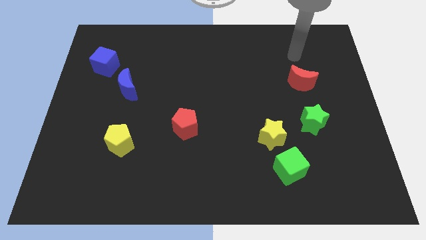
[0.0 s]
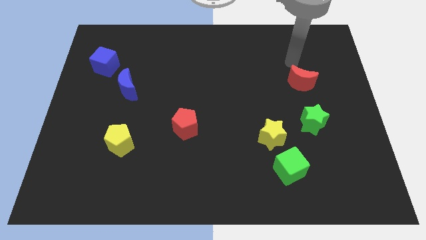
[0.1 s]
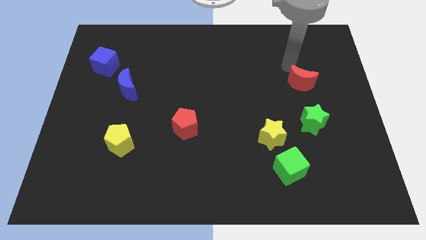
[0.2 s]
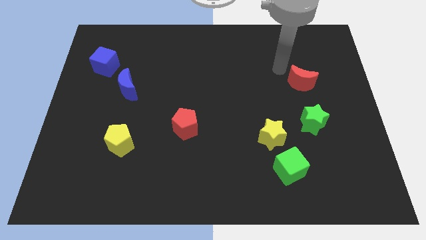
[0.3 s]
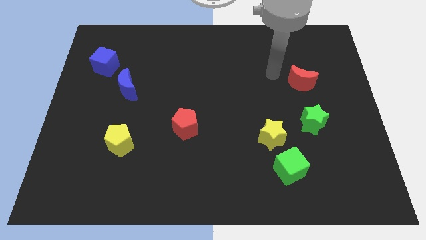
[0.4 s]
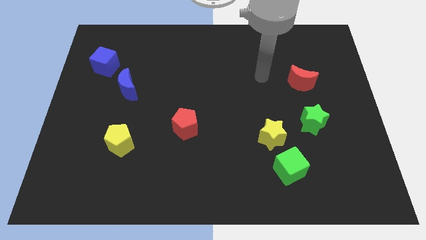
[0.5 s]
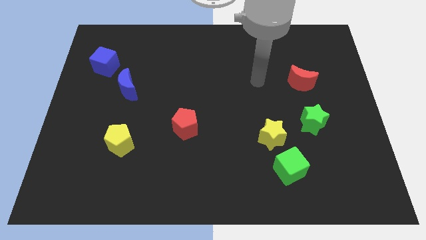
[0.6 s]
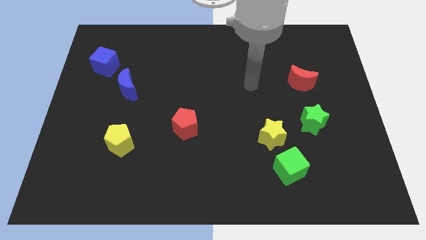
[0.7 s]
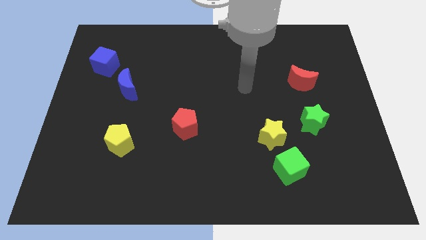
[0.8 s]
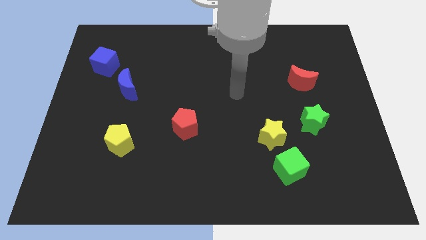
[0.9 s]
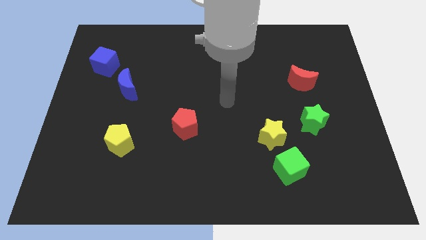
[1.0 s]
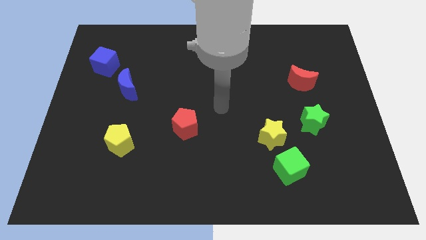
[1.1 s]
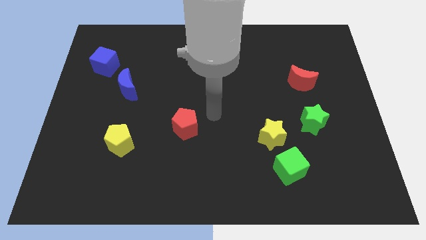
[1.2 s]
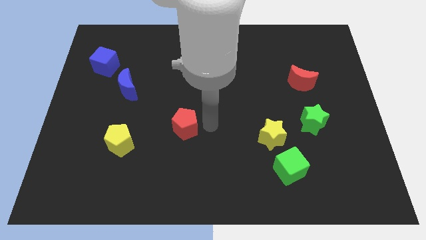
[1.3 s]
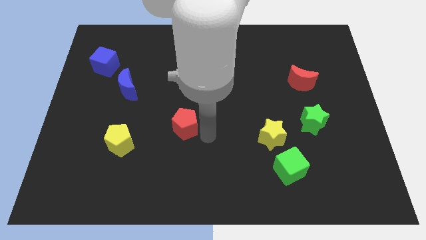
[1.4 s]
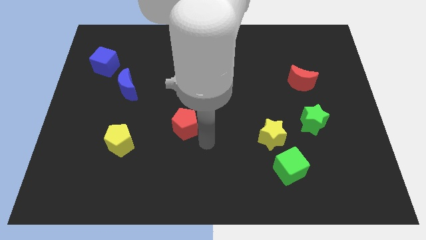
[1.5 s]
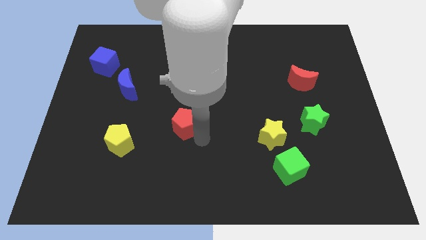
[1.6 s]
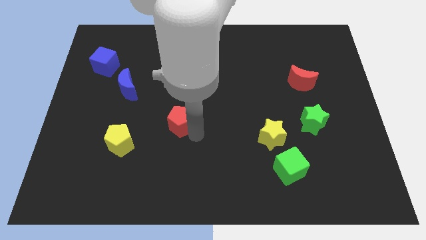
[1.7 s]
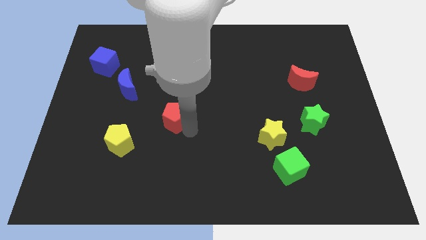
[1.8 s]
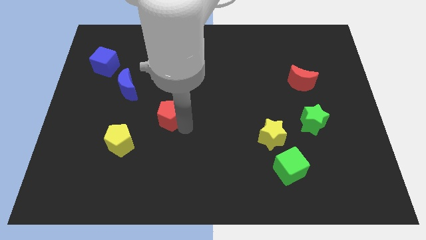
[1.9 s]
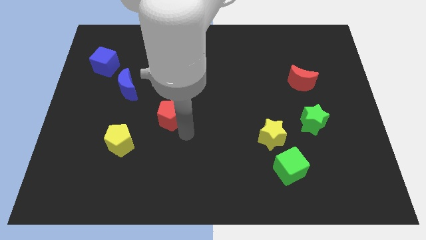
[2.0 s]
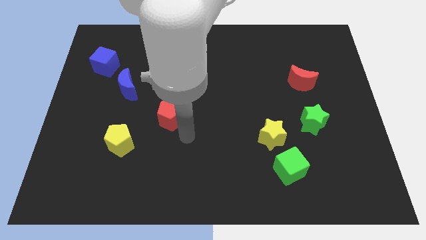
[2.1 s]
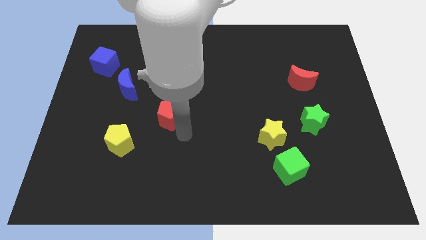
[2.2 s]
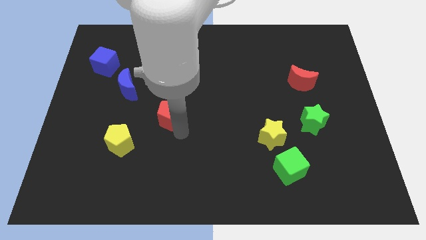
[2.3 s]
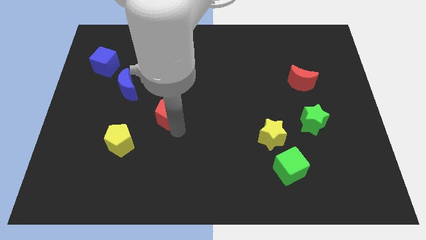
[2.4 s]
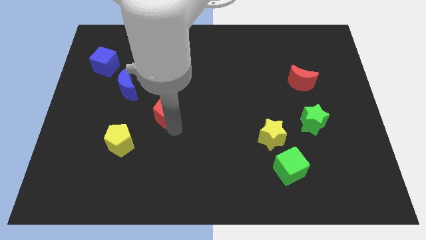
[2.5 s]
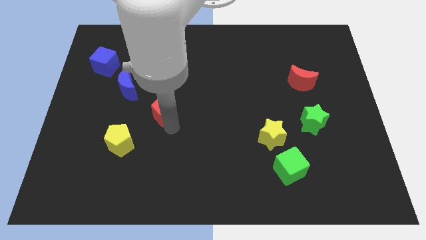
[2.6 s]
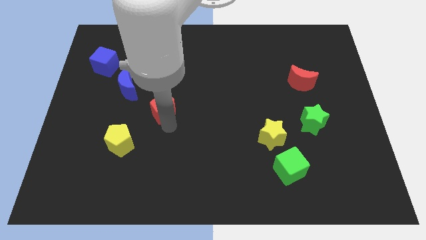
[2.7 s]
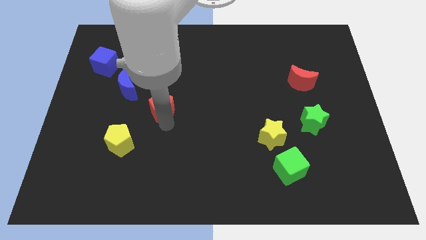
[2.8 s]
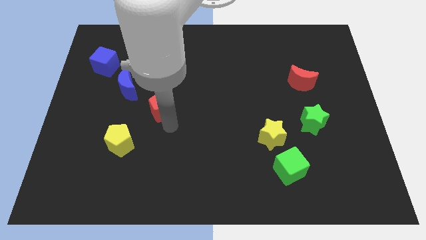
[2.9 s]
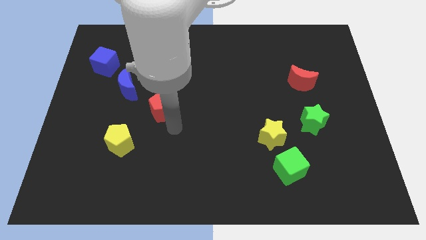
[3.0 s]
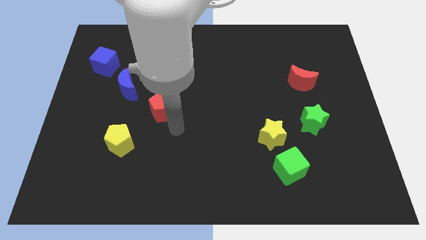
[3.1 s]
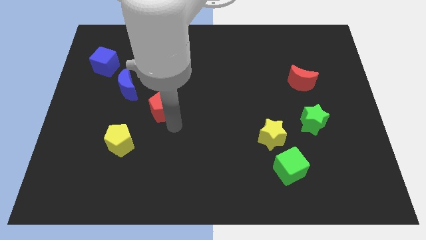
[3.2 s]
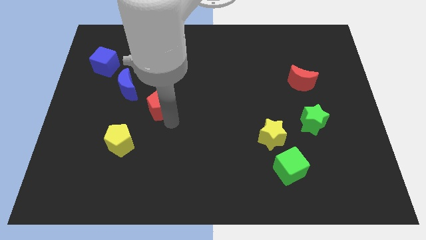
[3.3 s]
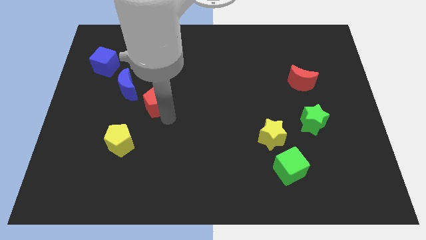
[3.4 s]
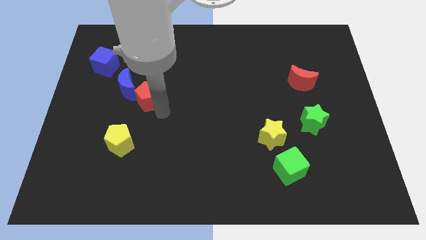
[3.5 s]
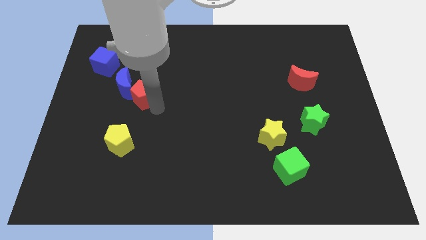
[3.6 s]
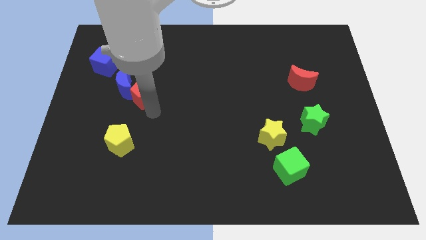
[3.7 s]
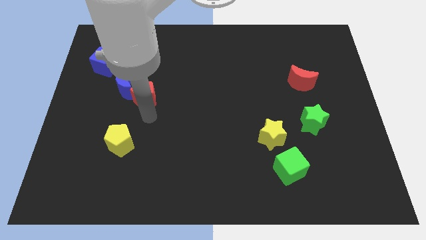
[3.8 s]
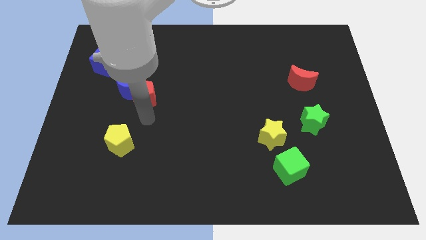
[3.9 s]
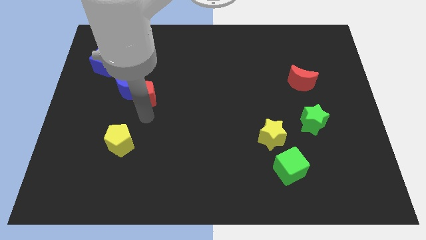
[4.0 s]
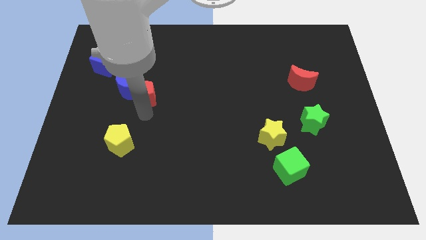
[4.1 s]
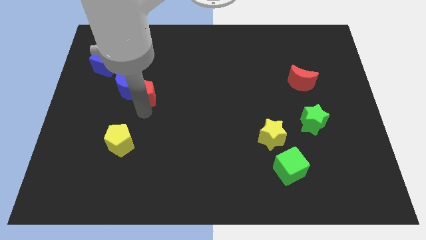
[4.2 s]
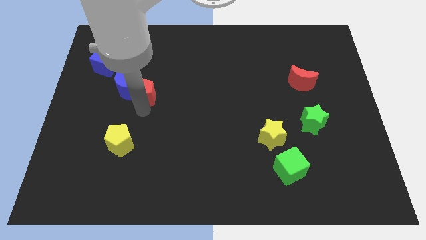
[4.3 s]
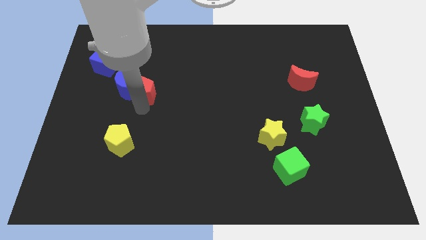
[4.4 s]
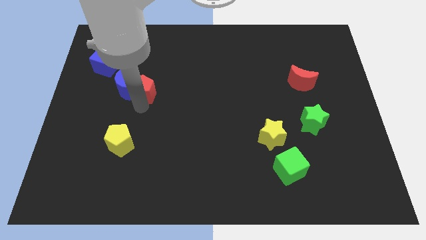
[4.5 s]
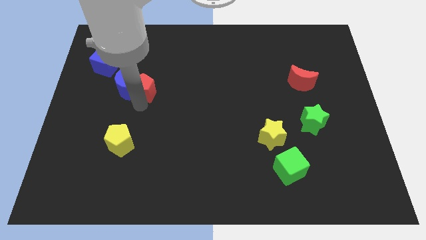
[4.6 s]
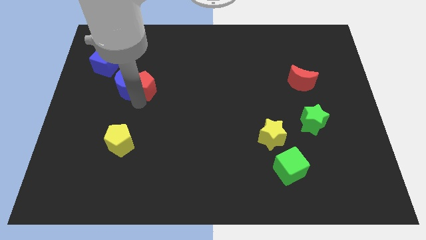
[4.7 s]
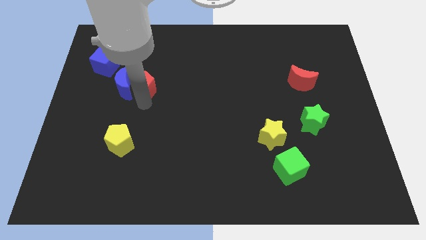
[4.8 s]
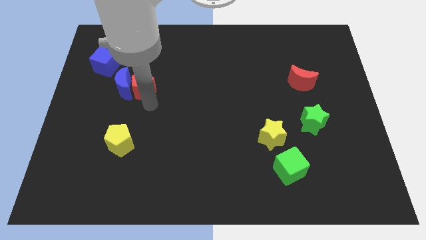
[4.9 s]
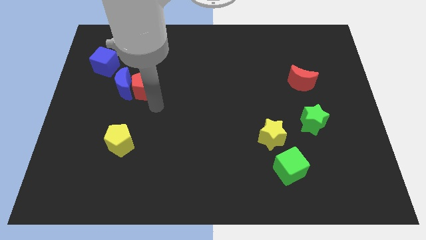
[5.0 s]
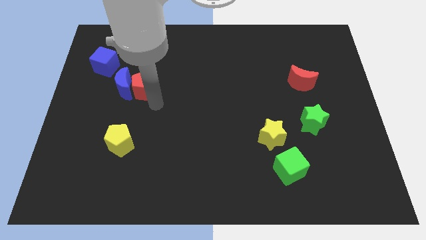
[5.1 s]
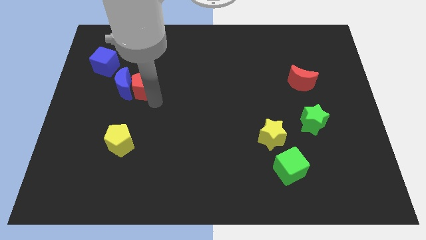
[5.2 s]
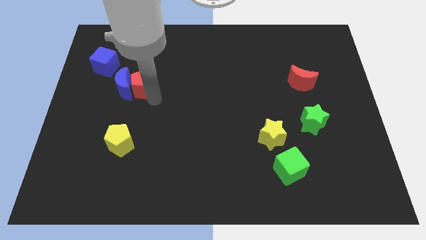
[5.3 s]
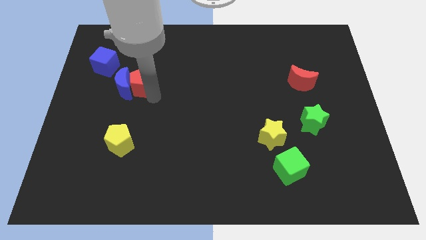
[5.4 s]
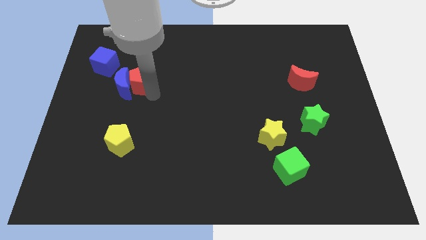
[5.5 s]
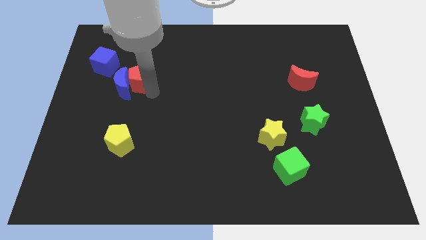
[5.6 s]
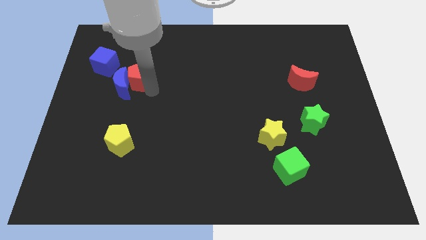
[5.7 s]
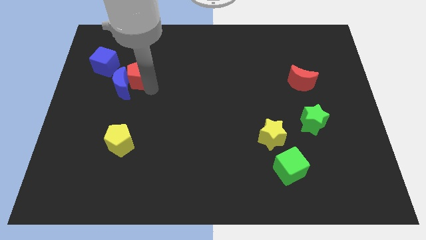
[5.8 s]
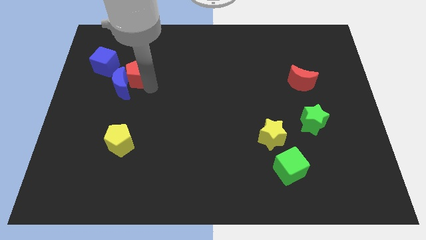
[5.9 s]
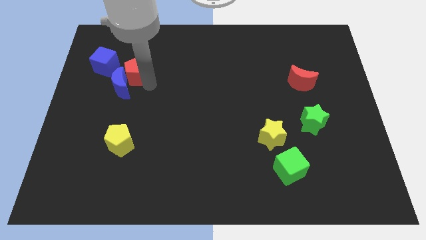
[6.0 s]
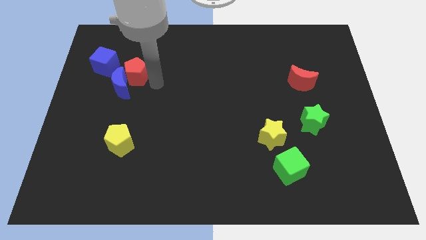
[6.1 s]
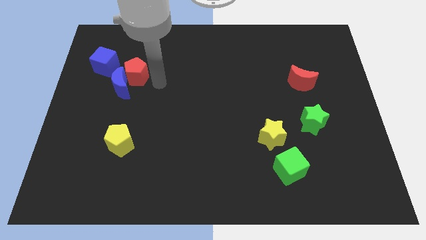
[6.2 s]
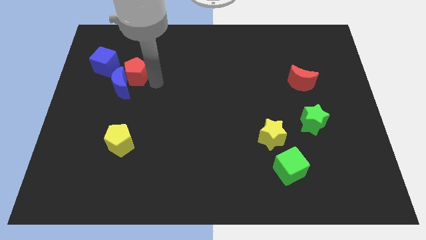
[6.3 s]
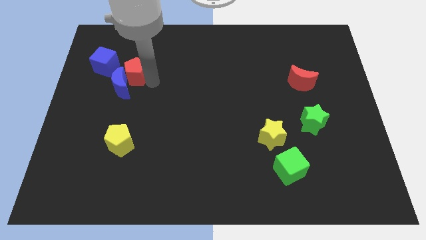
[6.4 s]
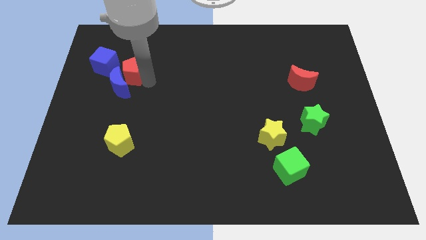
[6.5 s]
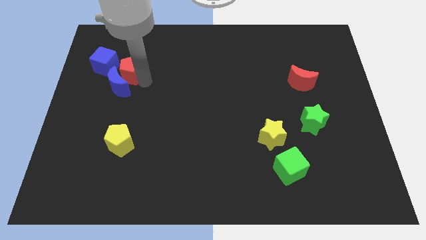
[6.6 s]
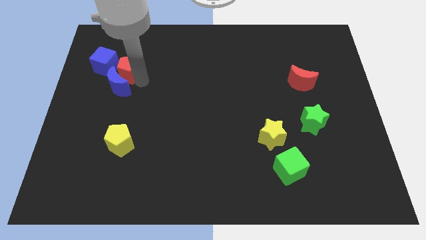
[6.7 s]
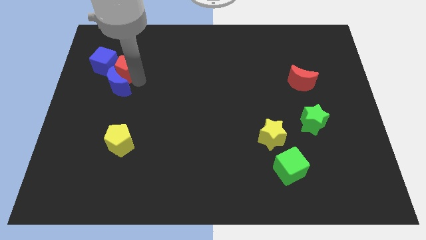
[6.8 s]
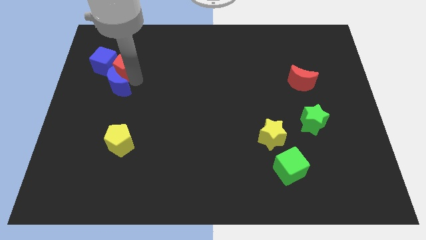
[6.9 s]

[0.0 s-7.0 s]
slide the red pentagon close to the blue cube
